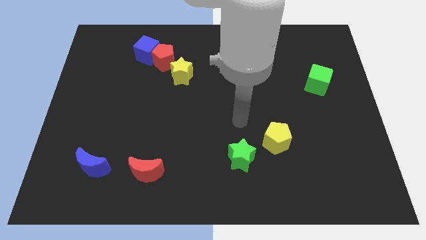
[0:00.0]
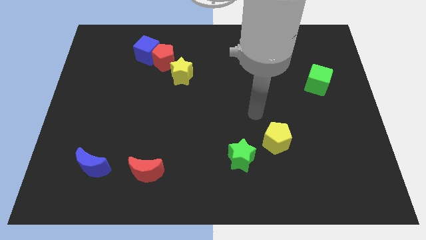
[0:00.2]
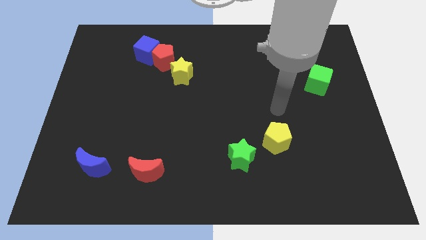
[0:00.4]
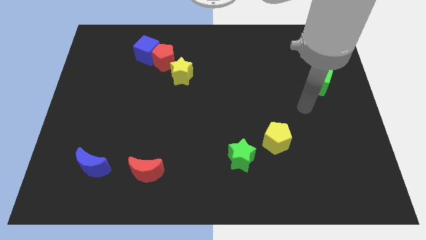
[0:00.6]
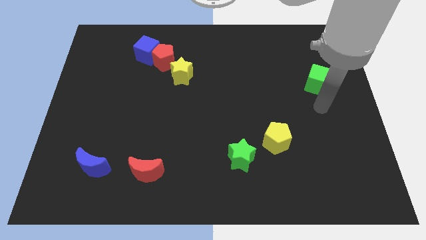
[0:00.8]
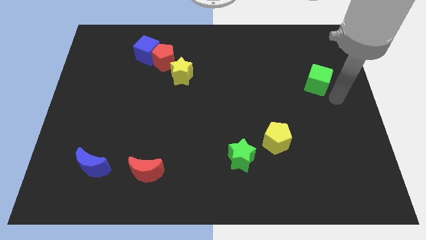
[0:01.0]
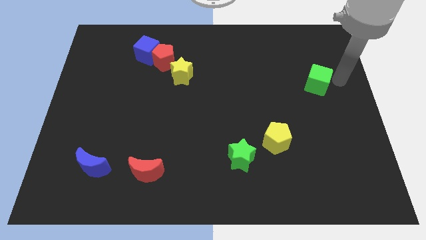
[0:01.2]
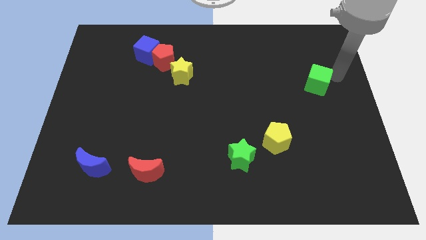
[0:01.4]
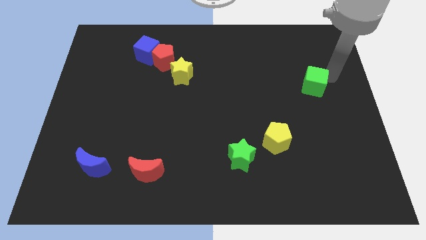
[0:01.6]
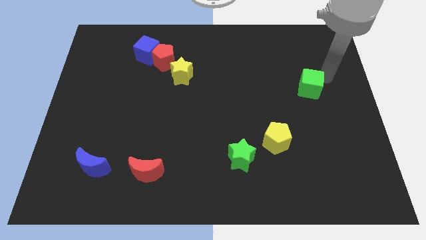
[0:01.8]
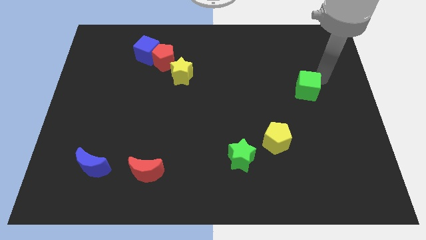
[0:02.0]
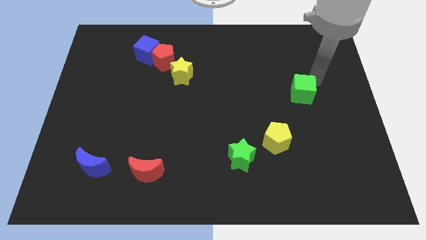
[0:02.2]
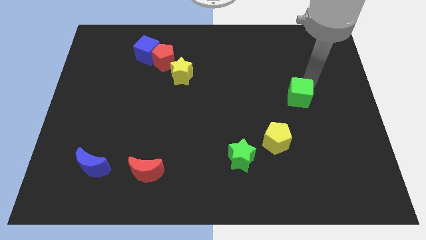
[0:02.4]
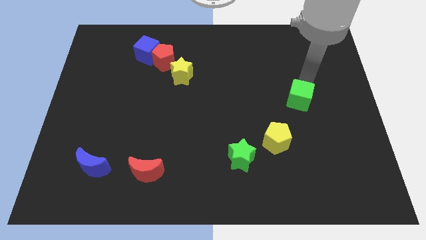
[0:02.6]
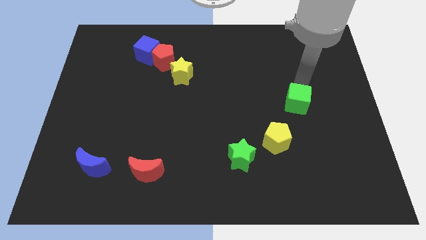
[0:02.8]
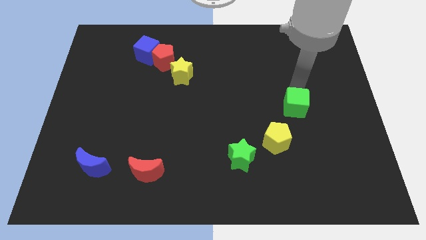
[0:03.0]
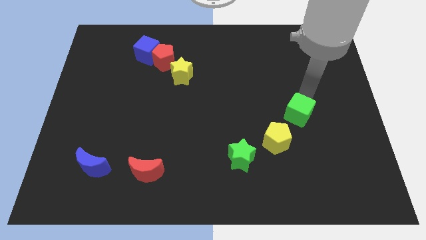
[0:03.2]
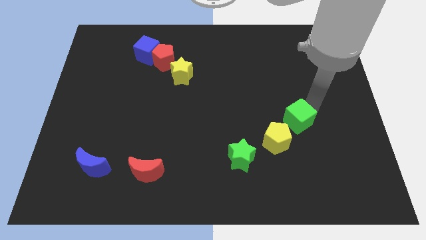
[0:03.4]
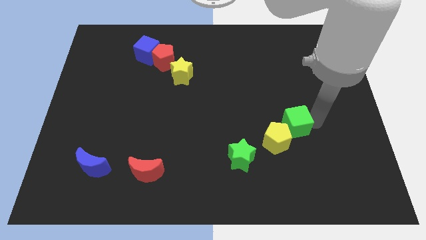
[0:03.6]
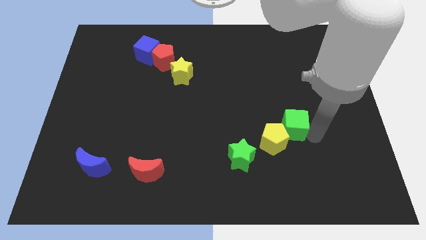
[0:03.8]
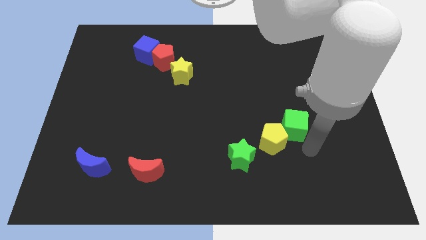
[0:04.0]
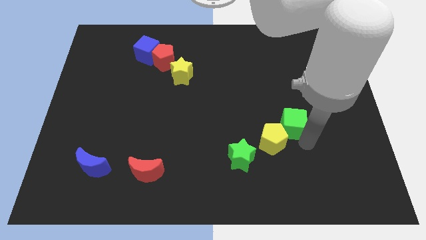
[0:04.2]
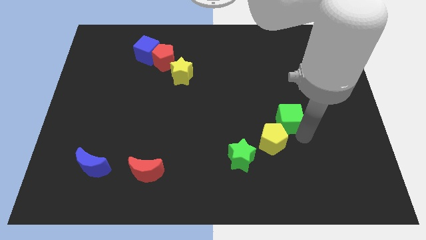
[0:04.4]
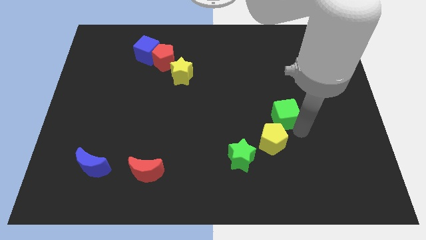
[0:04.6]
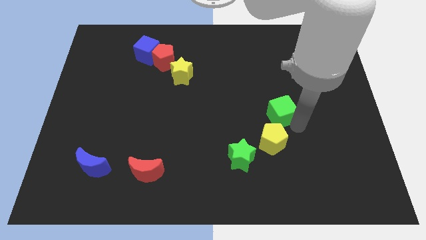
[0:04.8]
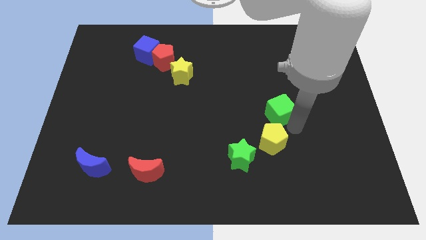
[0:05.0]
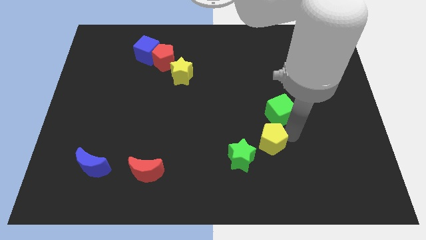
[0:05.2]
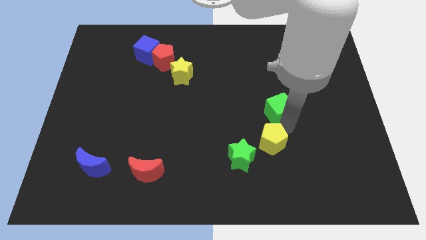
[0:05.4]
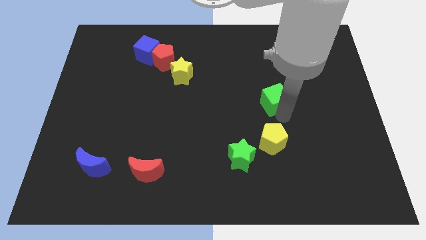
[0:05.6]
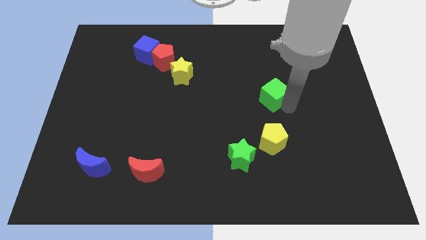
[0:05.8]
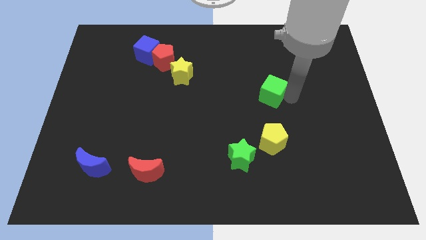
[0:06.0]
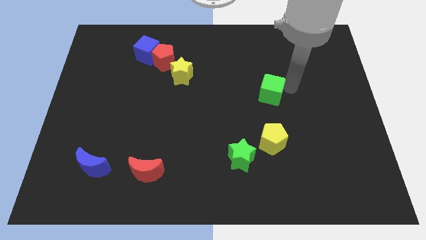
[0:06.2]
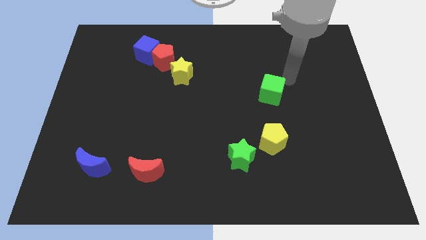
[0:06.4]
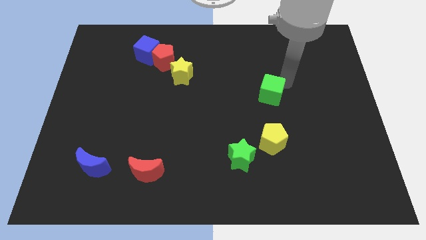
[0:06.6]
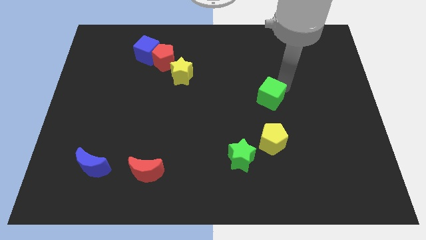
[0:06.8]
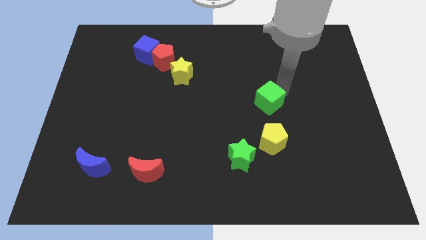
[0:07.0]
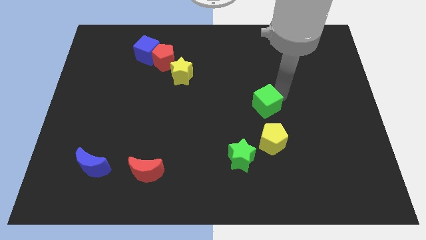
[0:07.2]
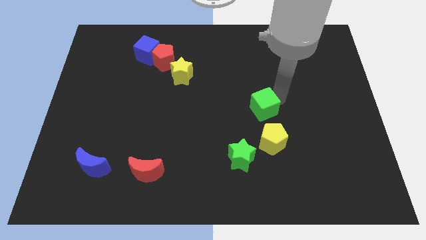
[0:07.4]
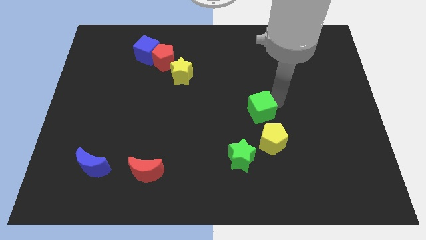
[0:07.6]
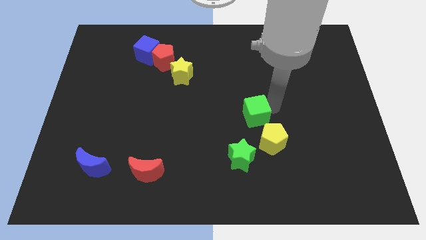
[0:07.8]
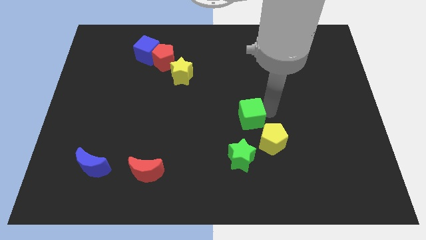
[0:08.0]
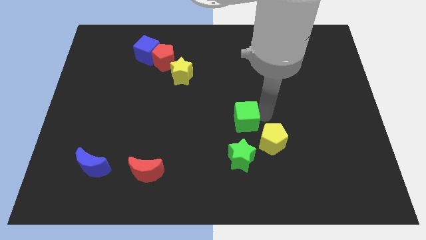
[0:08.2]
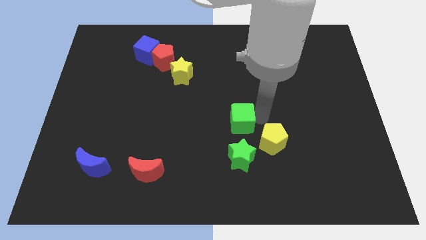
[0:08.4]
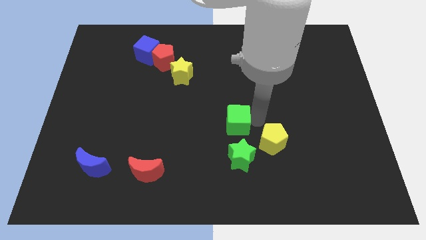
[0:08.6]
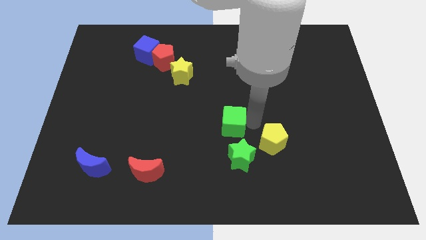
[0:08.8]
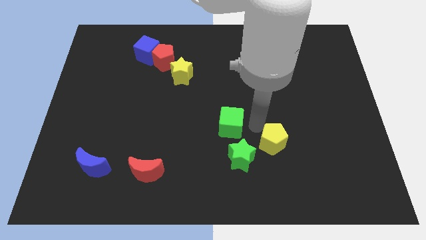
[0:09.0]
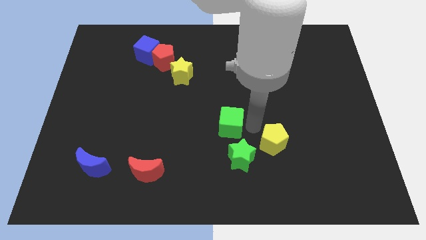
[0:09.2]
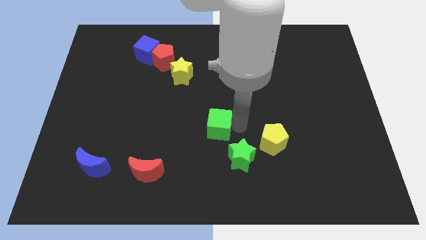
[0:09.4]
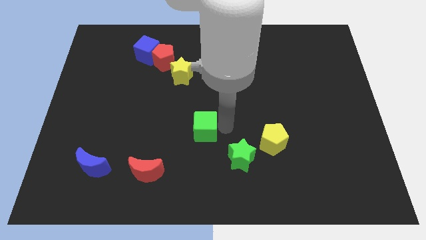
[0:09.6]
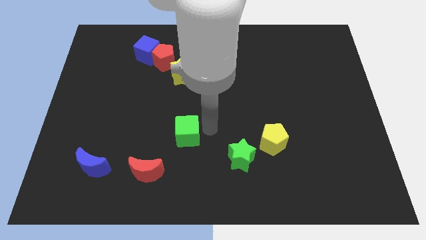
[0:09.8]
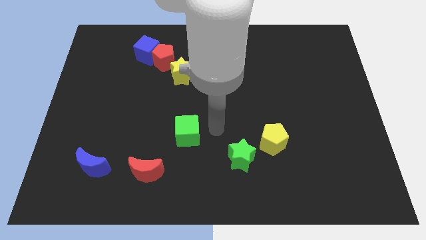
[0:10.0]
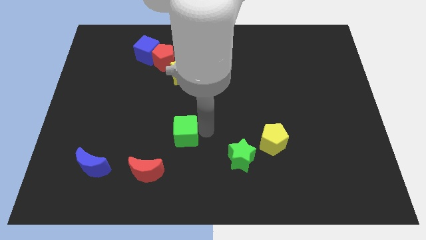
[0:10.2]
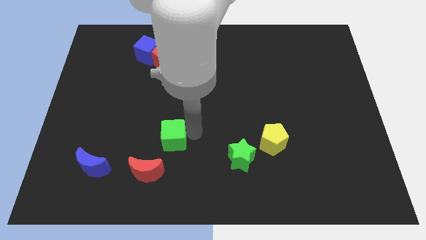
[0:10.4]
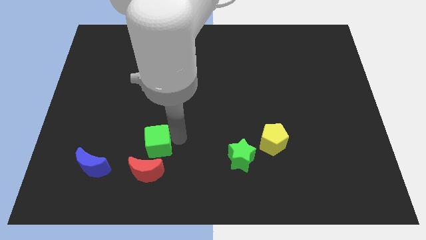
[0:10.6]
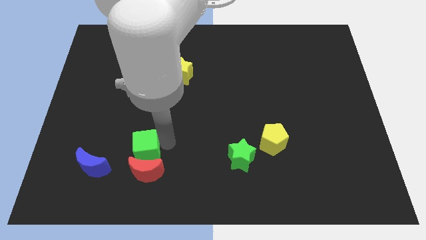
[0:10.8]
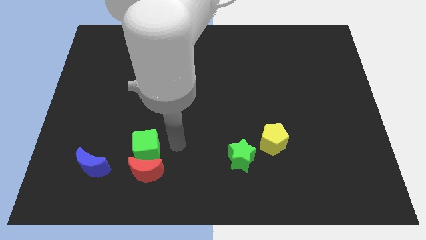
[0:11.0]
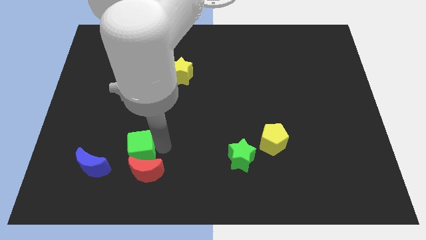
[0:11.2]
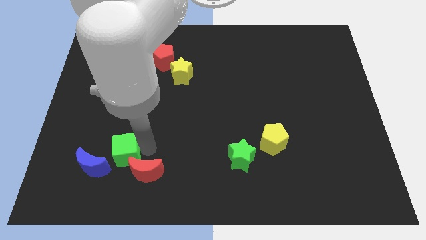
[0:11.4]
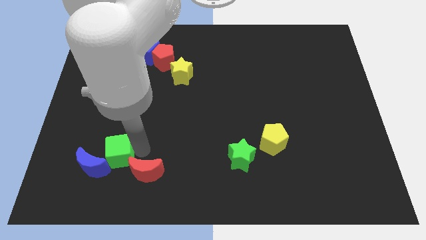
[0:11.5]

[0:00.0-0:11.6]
slide the green cube next to the blue moon

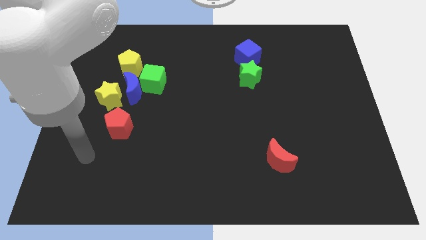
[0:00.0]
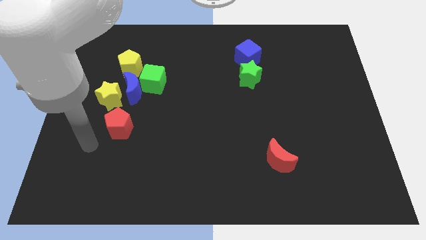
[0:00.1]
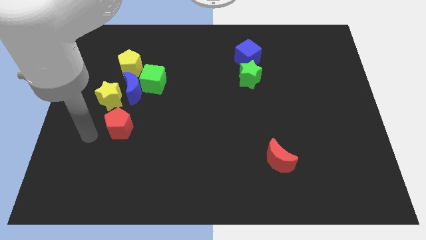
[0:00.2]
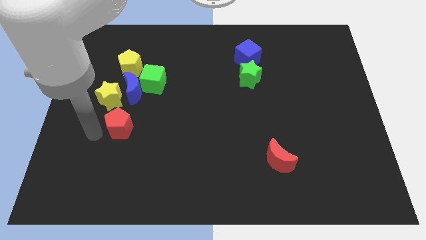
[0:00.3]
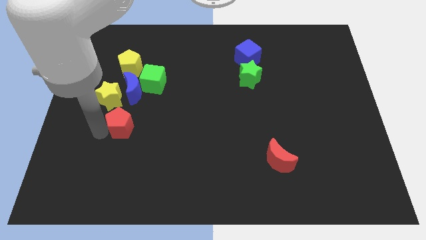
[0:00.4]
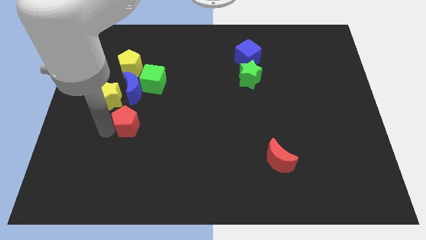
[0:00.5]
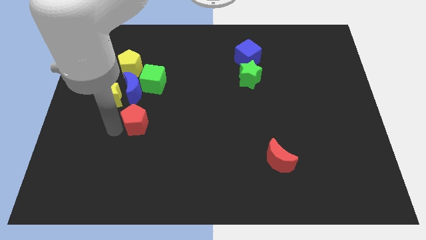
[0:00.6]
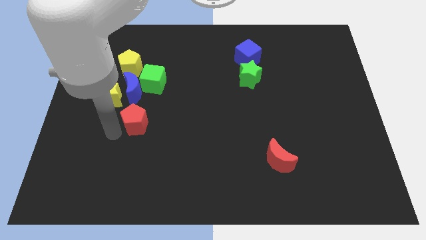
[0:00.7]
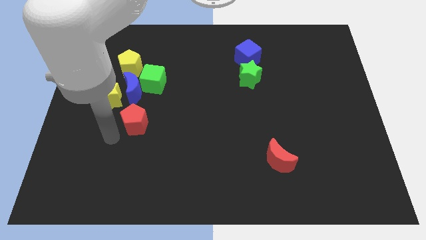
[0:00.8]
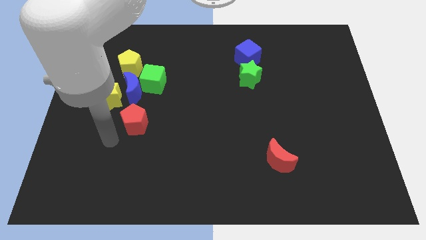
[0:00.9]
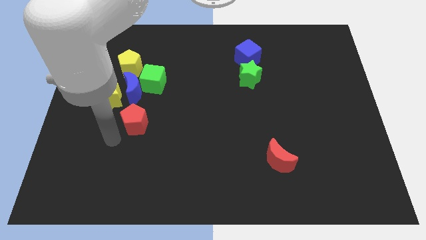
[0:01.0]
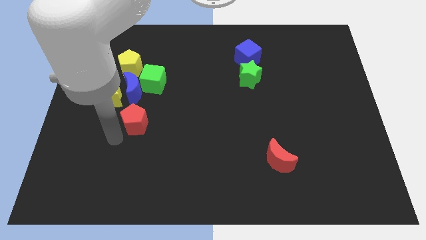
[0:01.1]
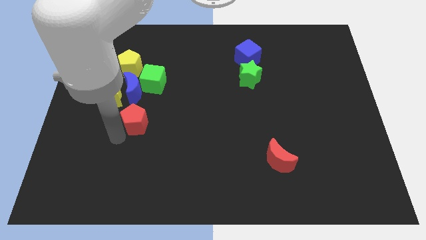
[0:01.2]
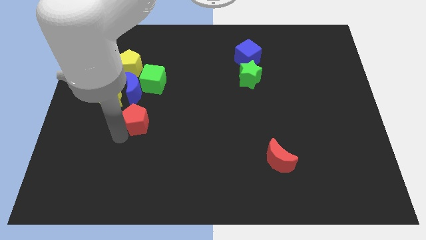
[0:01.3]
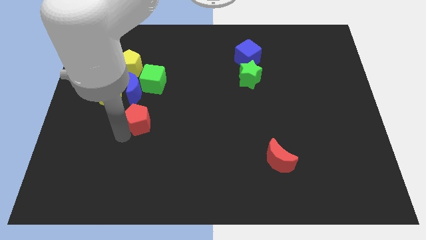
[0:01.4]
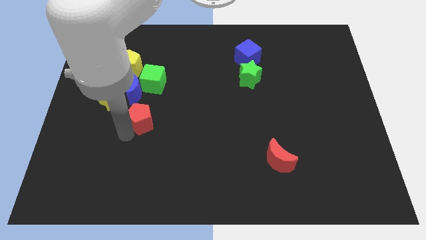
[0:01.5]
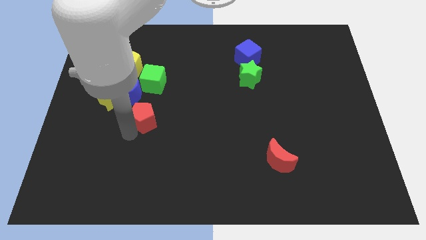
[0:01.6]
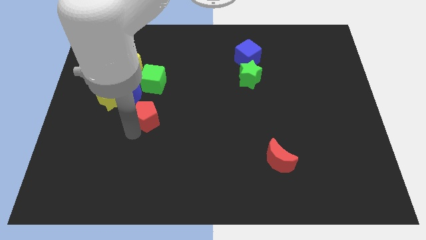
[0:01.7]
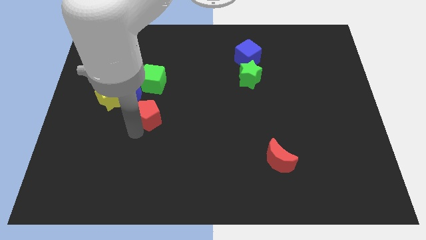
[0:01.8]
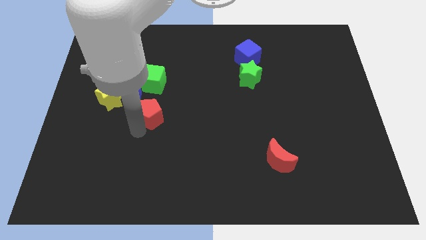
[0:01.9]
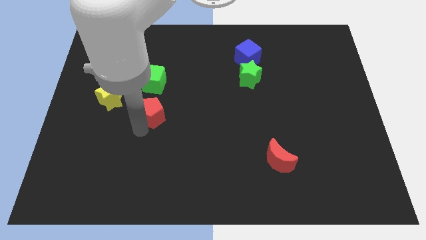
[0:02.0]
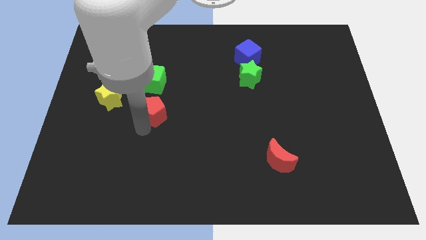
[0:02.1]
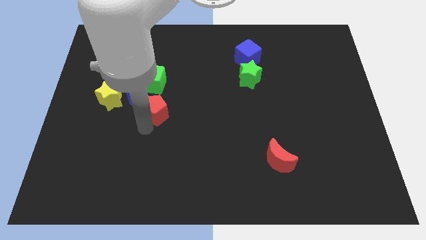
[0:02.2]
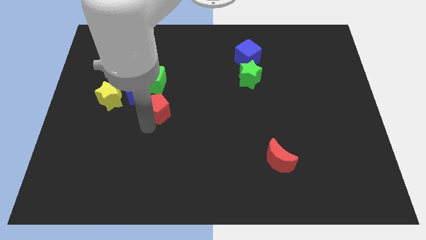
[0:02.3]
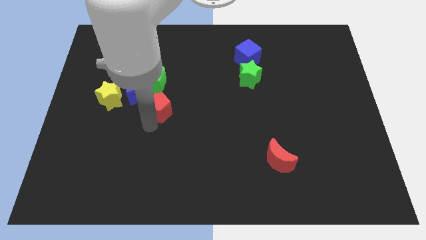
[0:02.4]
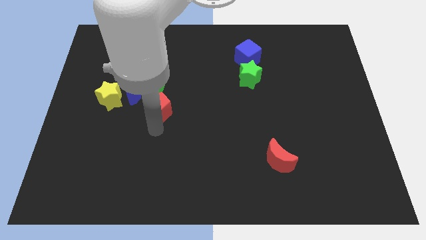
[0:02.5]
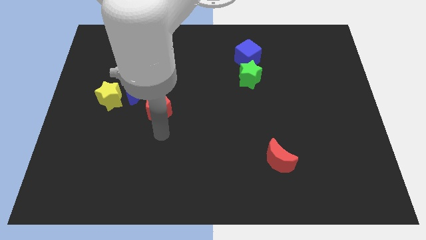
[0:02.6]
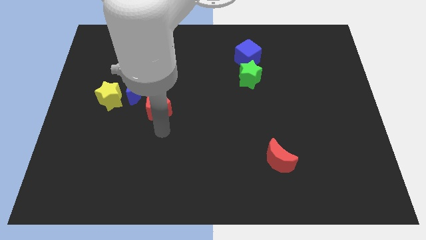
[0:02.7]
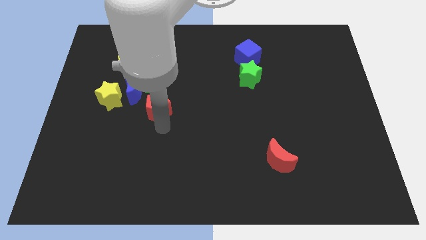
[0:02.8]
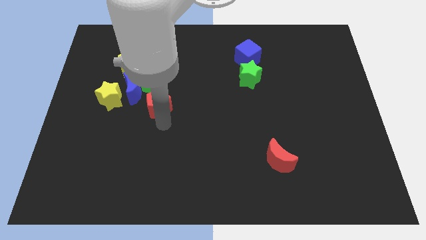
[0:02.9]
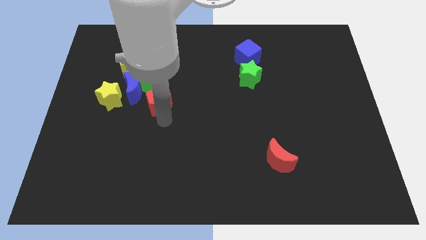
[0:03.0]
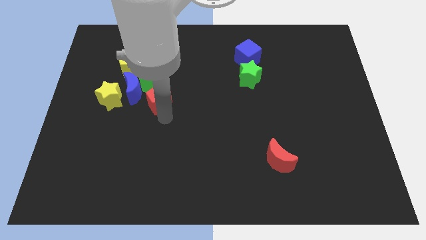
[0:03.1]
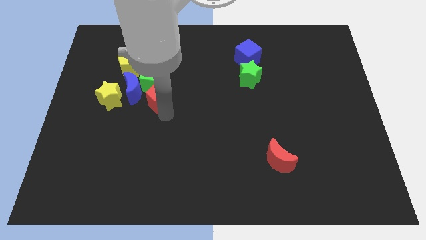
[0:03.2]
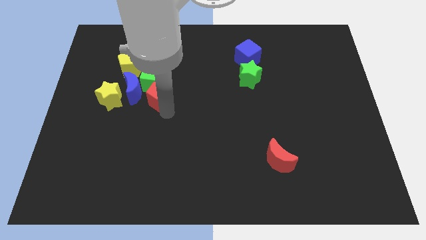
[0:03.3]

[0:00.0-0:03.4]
put the red pentagon close to the green cube
